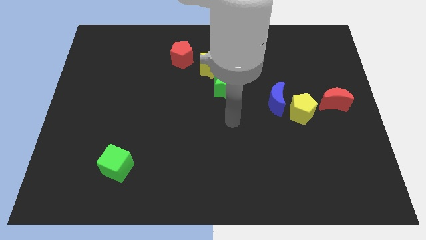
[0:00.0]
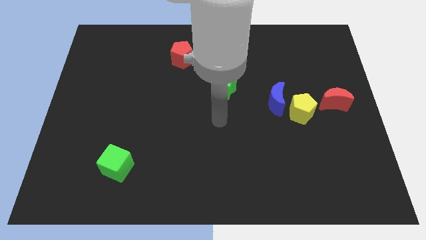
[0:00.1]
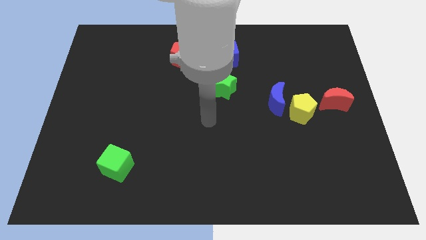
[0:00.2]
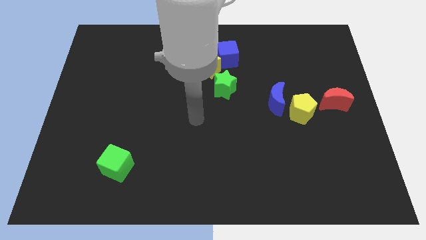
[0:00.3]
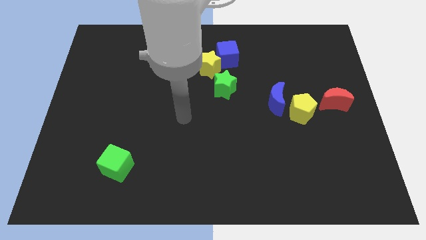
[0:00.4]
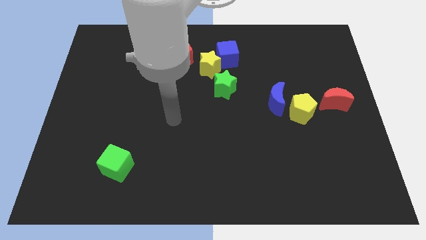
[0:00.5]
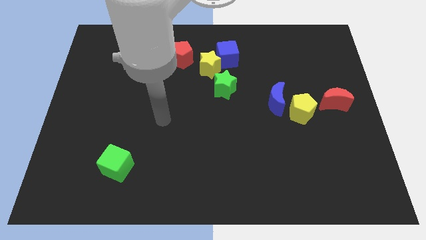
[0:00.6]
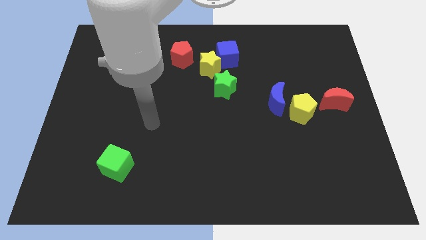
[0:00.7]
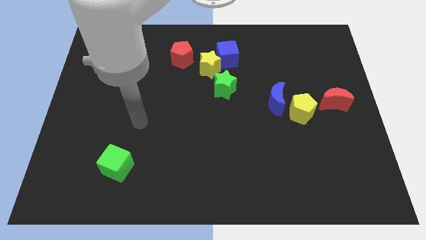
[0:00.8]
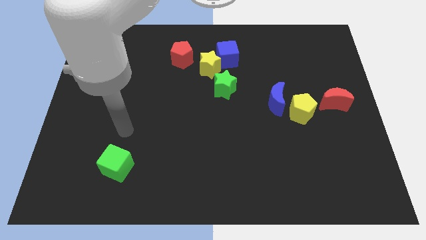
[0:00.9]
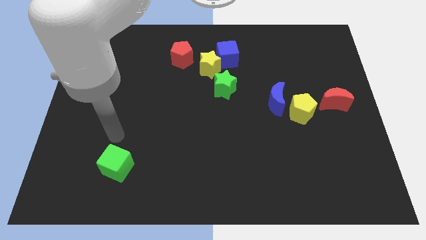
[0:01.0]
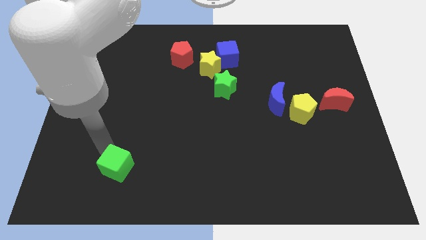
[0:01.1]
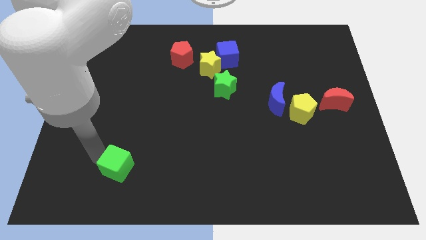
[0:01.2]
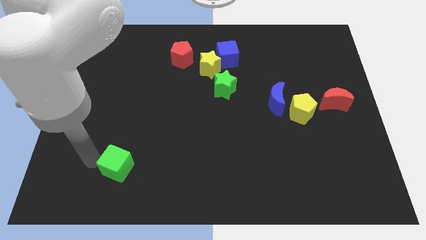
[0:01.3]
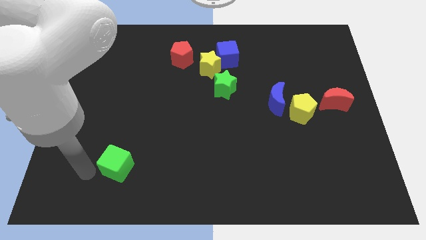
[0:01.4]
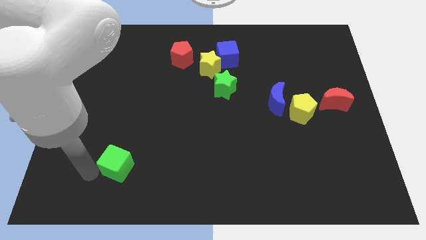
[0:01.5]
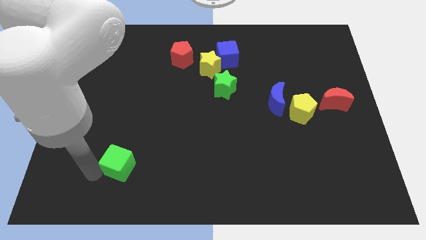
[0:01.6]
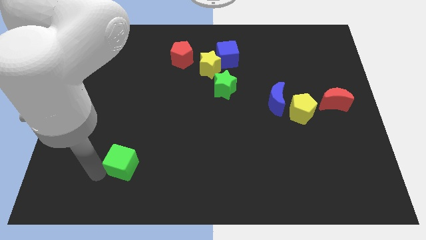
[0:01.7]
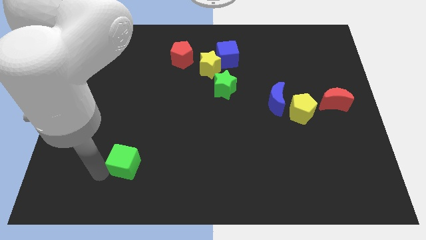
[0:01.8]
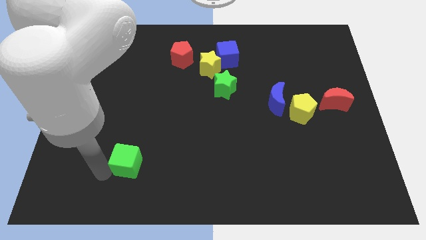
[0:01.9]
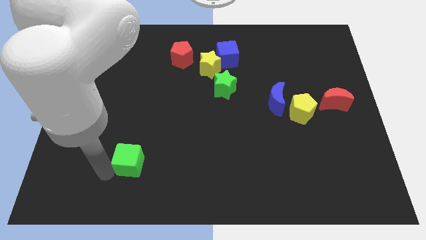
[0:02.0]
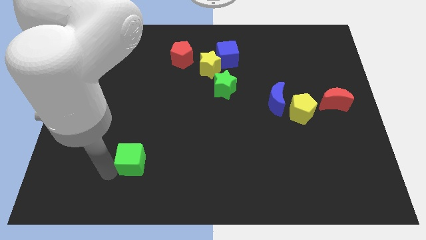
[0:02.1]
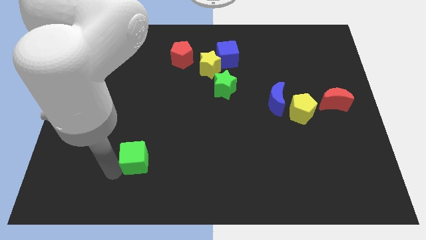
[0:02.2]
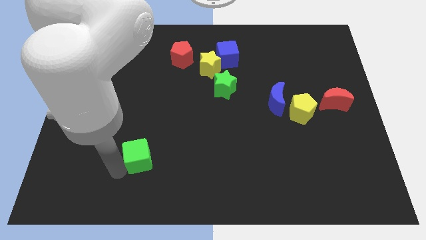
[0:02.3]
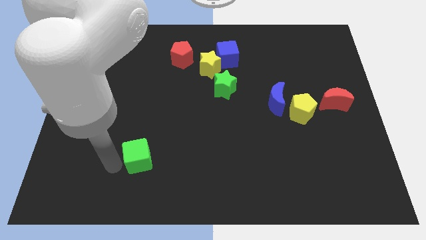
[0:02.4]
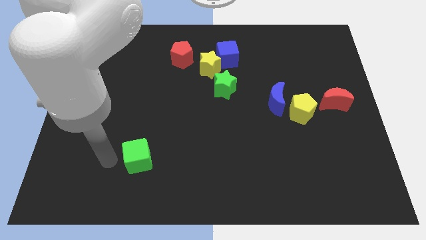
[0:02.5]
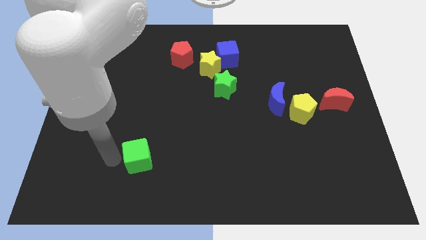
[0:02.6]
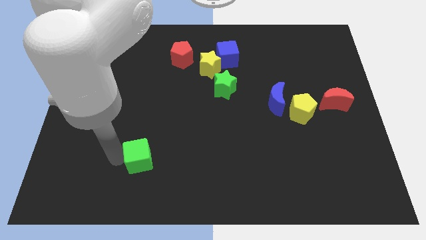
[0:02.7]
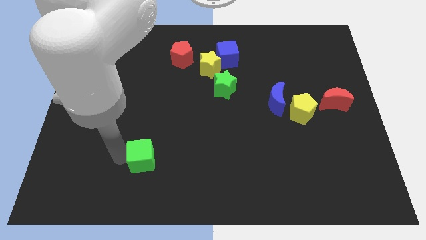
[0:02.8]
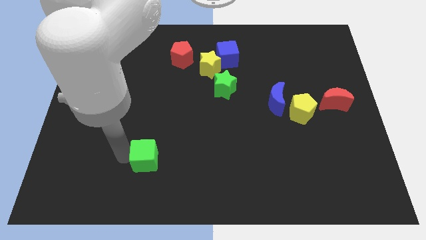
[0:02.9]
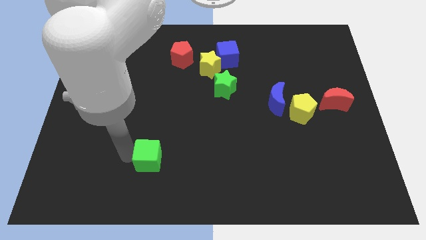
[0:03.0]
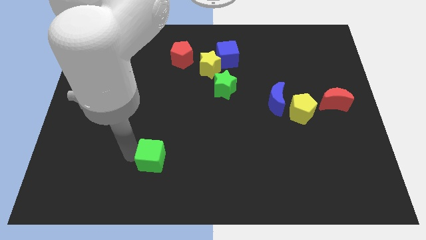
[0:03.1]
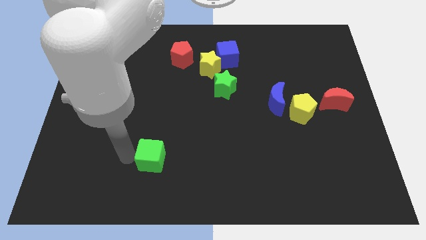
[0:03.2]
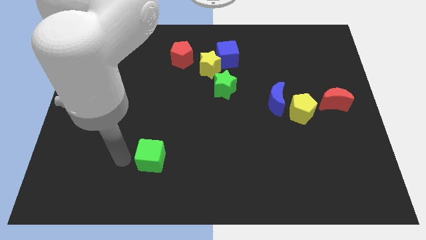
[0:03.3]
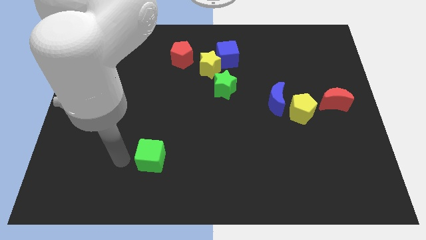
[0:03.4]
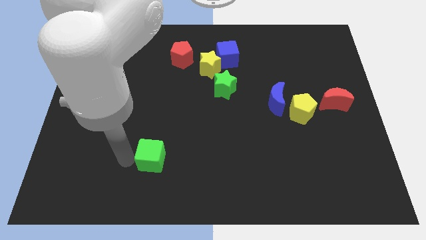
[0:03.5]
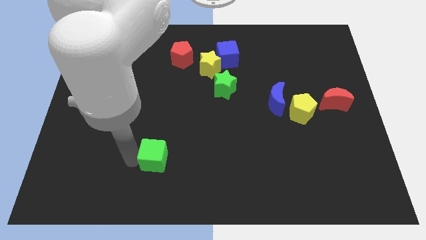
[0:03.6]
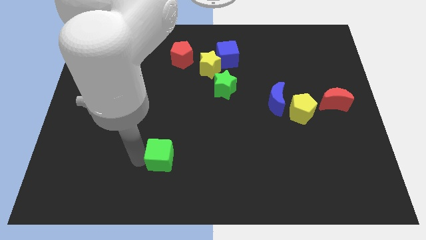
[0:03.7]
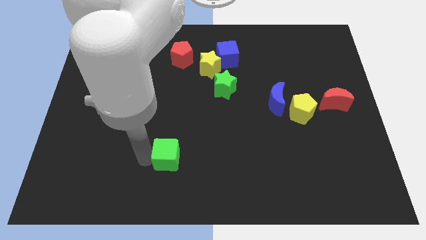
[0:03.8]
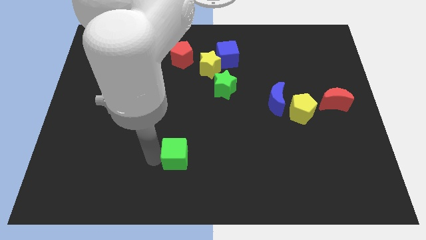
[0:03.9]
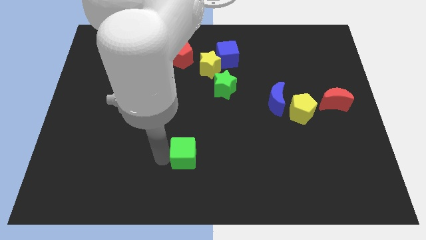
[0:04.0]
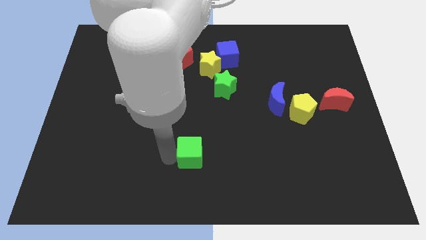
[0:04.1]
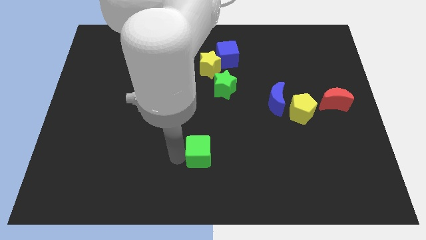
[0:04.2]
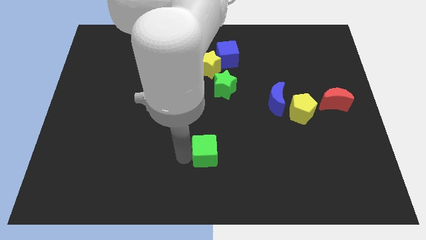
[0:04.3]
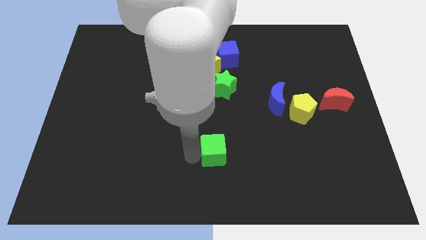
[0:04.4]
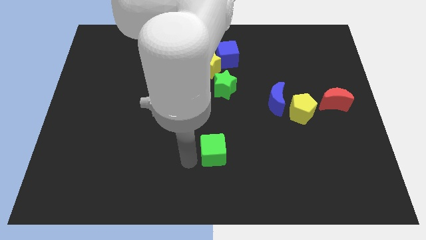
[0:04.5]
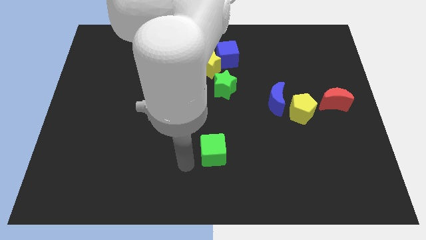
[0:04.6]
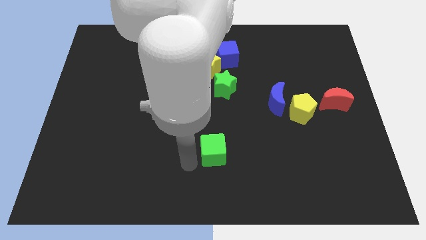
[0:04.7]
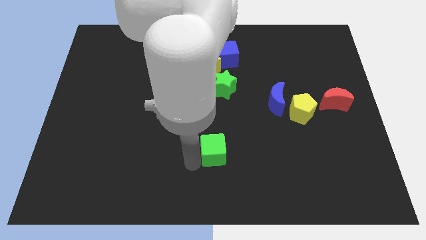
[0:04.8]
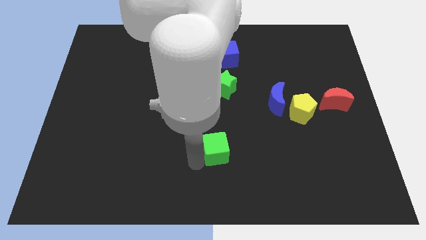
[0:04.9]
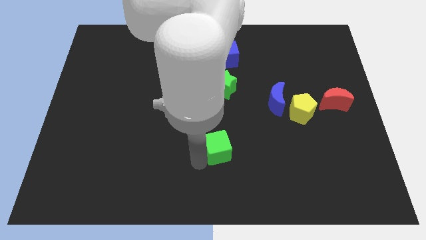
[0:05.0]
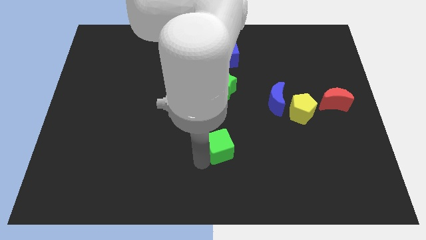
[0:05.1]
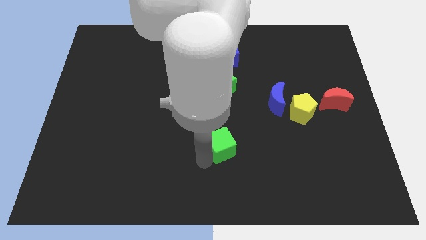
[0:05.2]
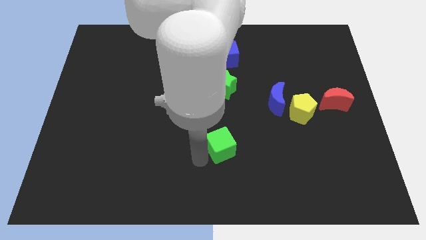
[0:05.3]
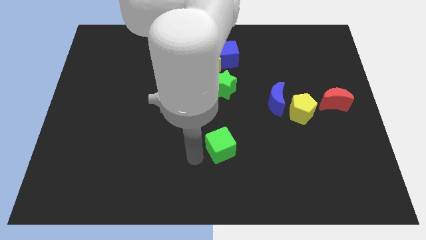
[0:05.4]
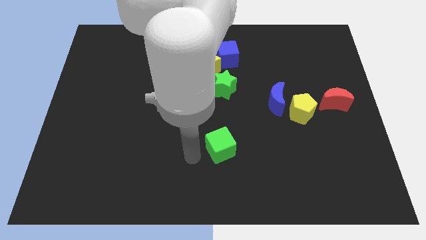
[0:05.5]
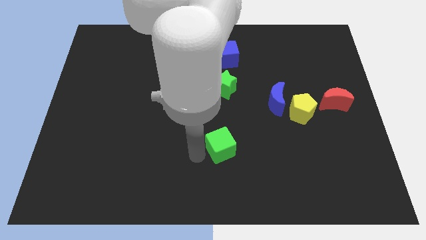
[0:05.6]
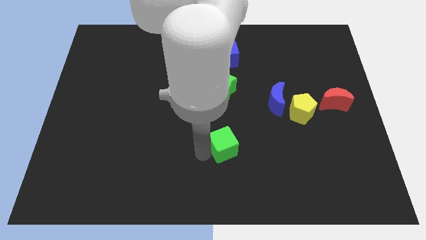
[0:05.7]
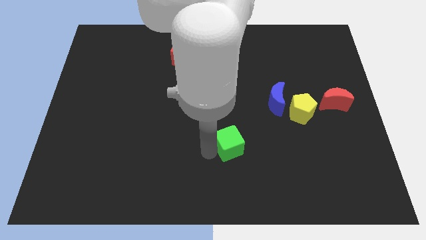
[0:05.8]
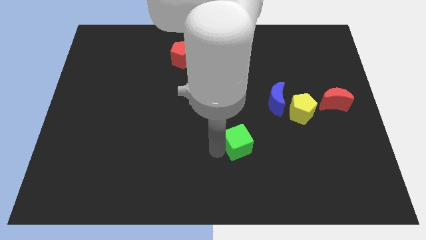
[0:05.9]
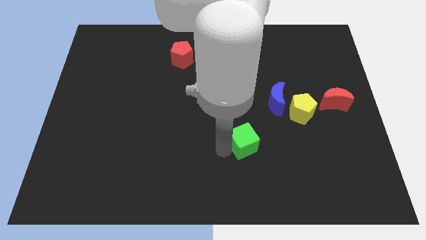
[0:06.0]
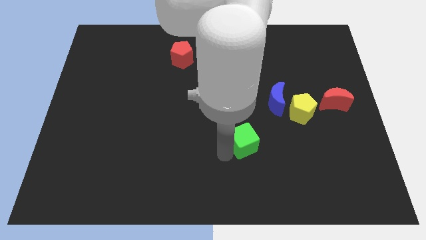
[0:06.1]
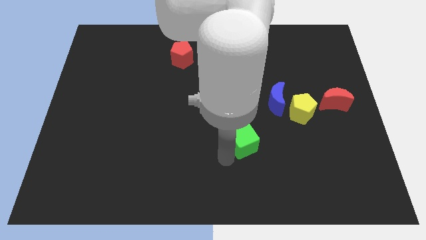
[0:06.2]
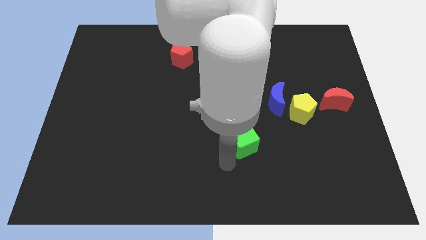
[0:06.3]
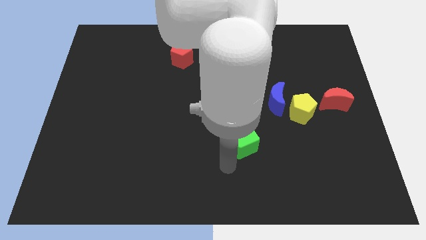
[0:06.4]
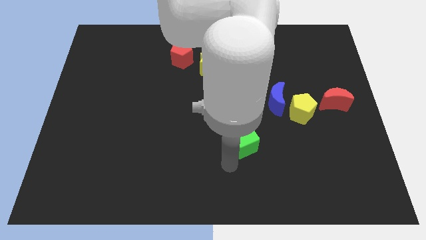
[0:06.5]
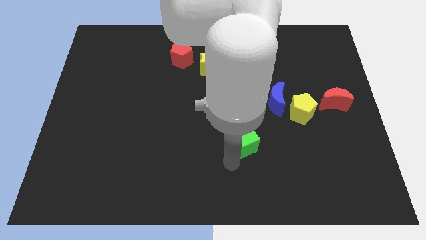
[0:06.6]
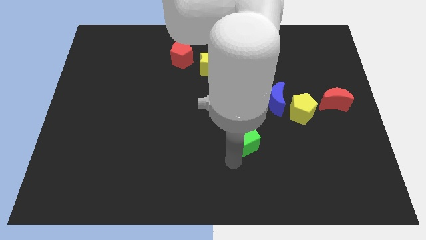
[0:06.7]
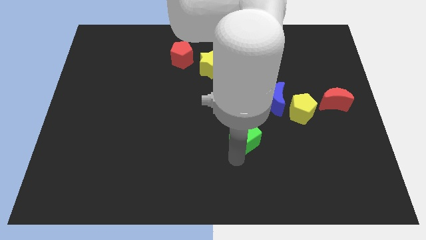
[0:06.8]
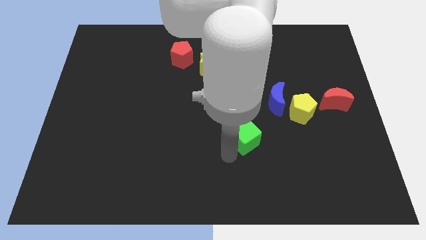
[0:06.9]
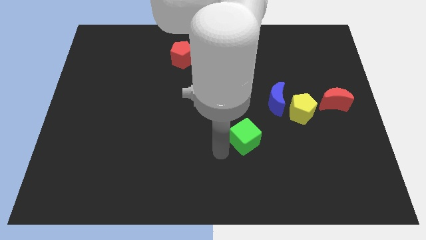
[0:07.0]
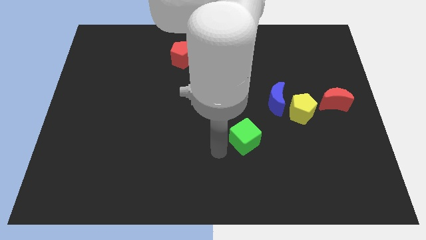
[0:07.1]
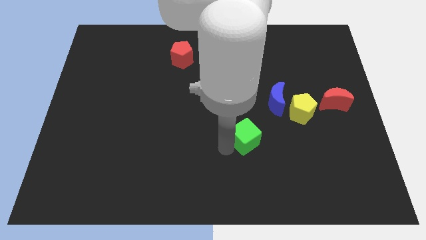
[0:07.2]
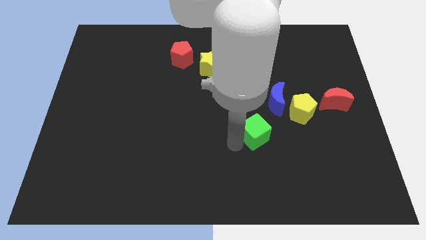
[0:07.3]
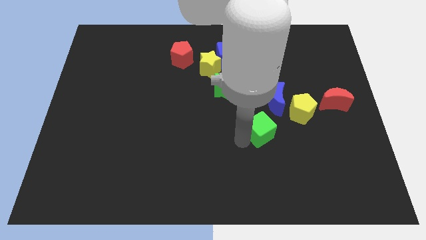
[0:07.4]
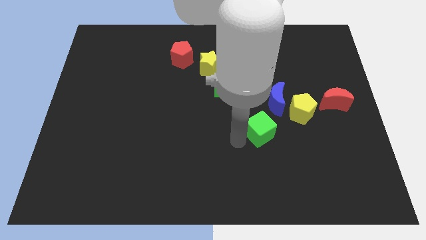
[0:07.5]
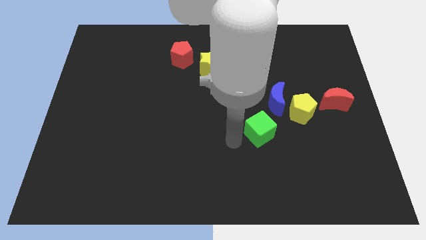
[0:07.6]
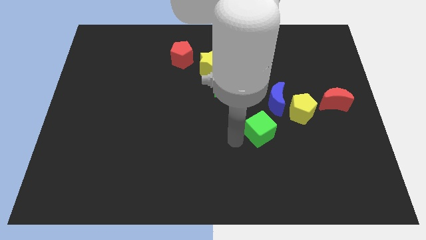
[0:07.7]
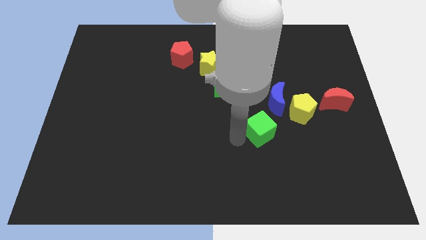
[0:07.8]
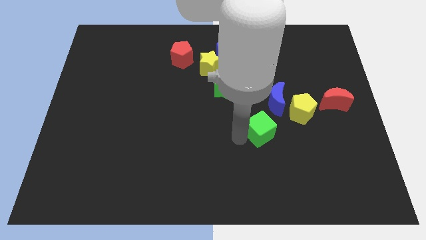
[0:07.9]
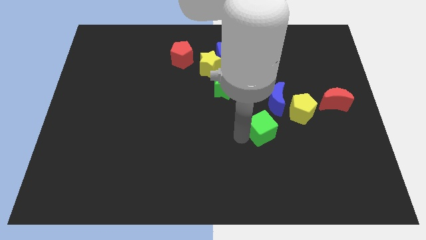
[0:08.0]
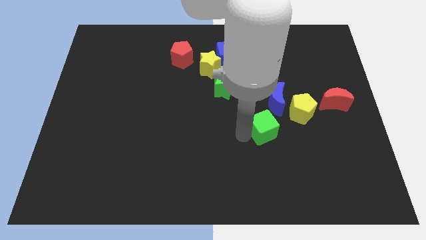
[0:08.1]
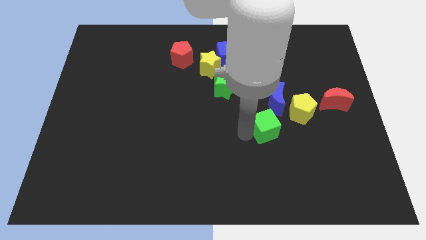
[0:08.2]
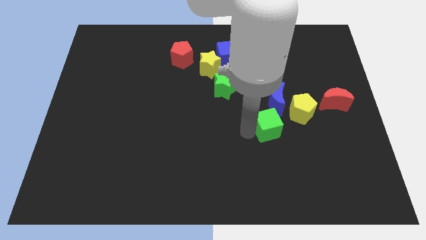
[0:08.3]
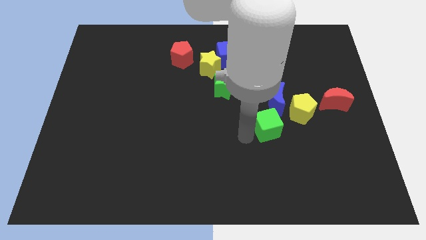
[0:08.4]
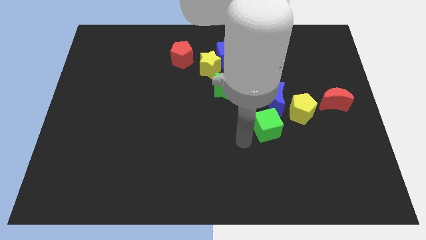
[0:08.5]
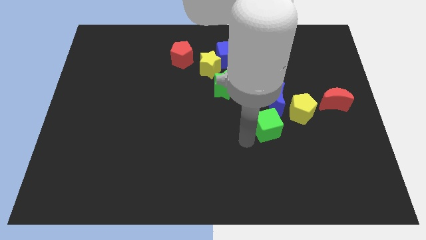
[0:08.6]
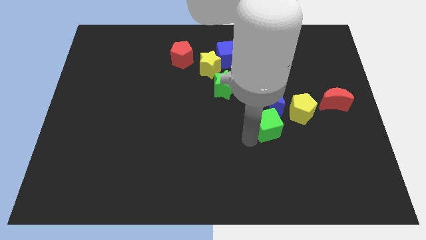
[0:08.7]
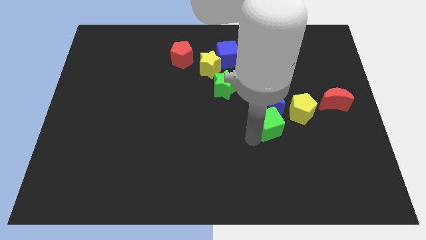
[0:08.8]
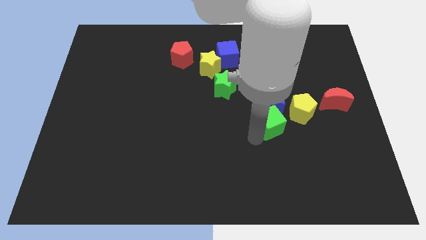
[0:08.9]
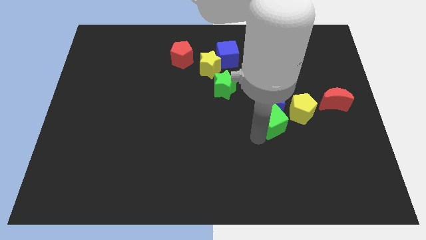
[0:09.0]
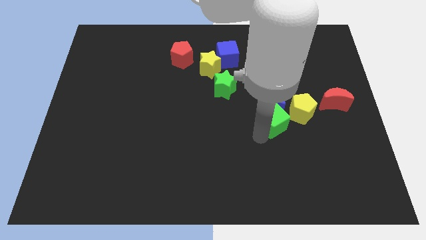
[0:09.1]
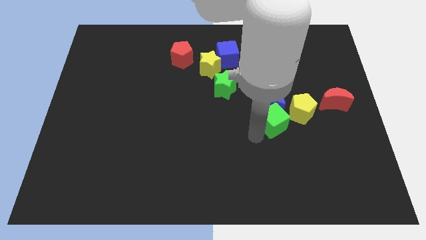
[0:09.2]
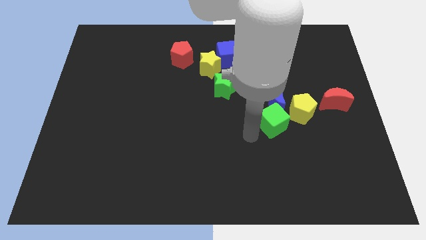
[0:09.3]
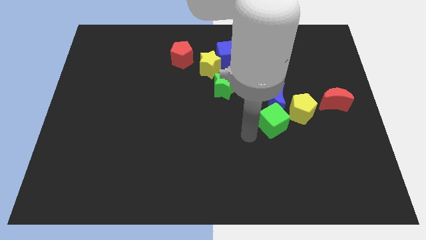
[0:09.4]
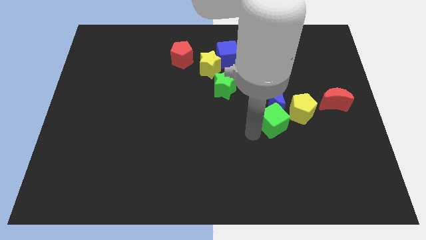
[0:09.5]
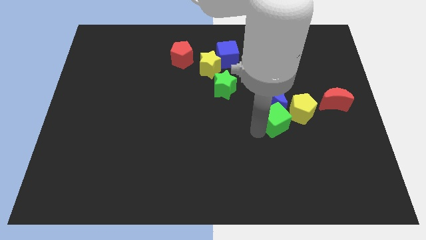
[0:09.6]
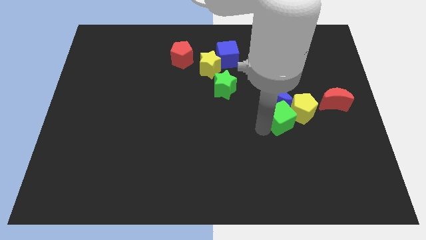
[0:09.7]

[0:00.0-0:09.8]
push the green cube towards the yellow pentagon
